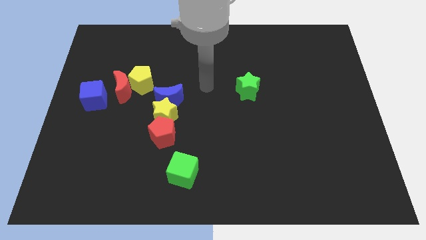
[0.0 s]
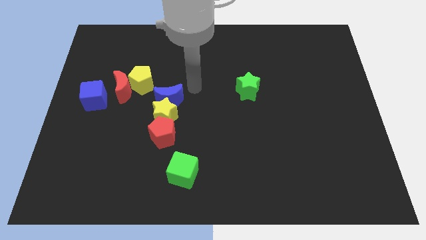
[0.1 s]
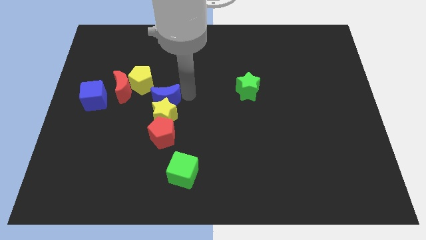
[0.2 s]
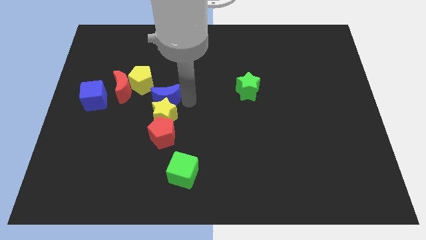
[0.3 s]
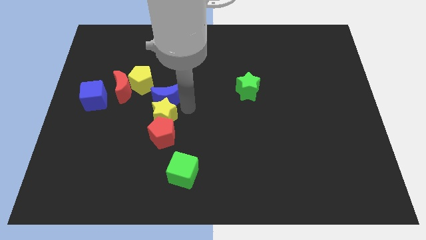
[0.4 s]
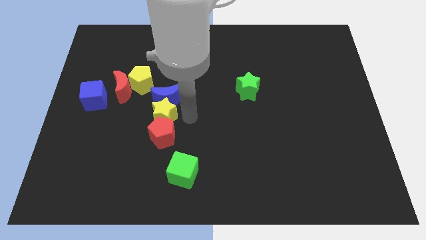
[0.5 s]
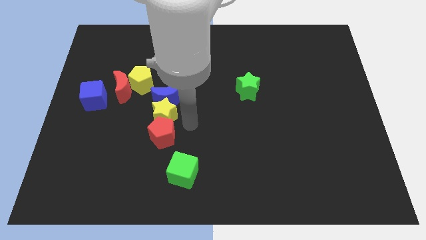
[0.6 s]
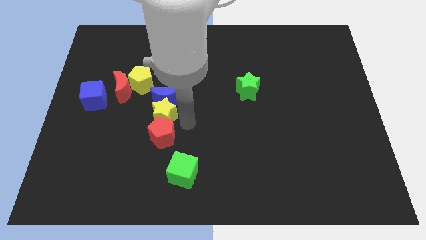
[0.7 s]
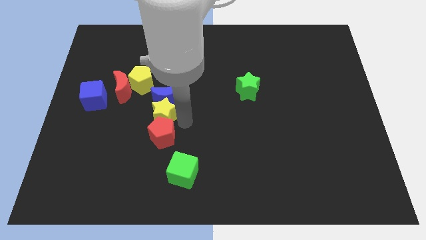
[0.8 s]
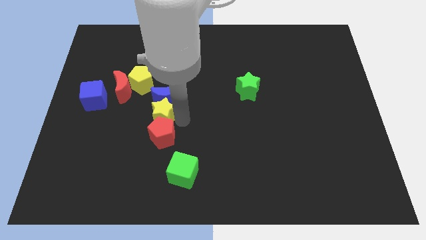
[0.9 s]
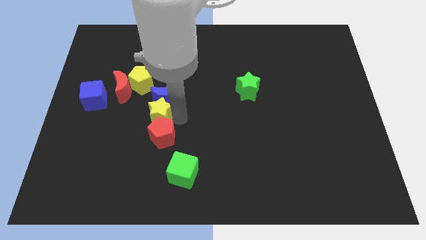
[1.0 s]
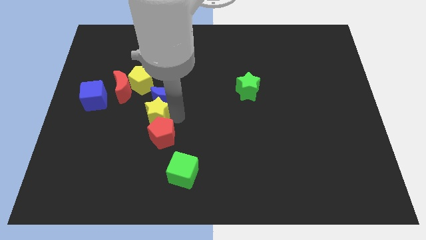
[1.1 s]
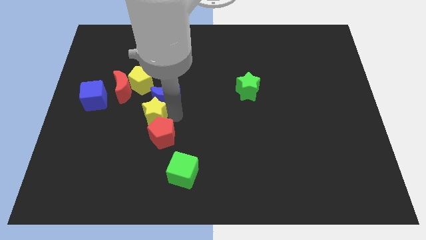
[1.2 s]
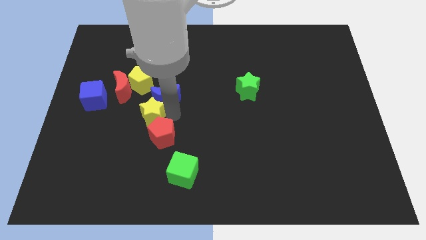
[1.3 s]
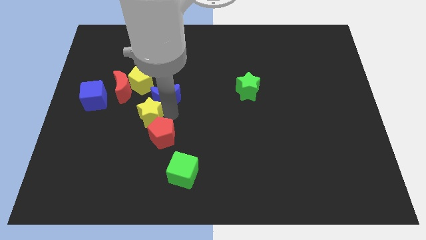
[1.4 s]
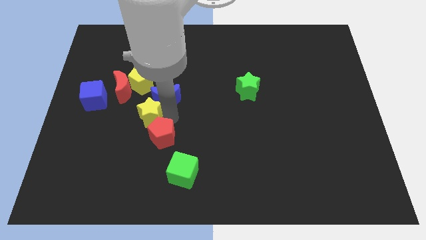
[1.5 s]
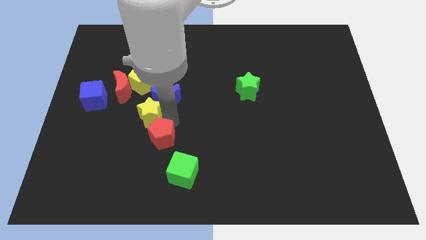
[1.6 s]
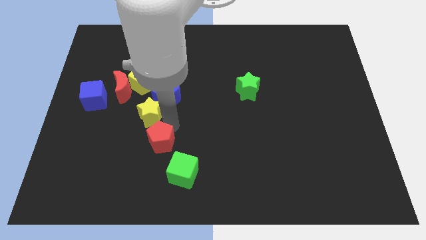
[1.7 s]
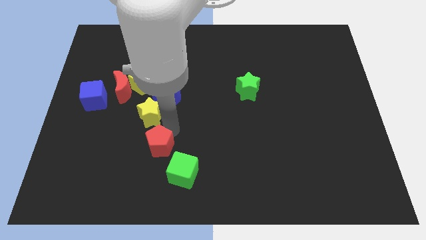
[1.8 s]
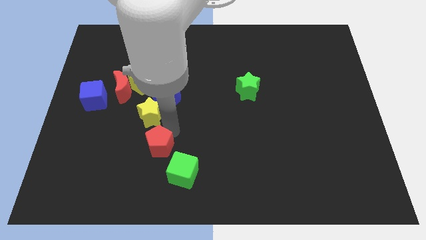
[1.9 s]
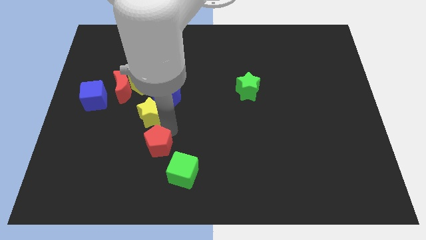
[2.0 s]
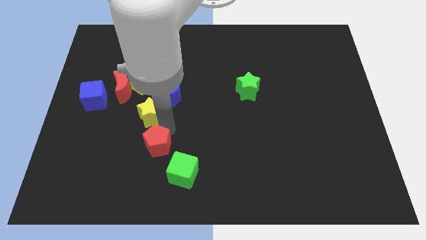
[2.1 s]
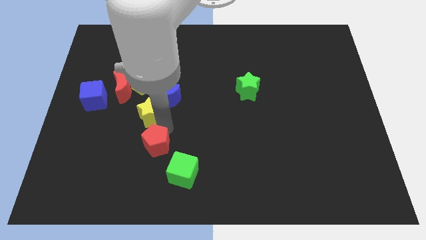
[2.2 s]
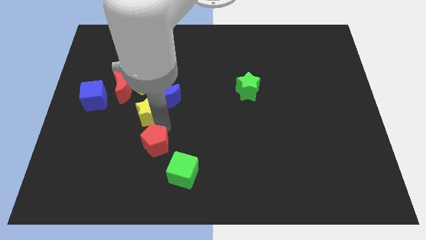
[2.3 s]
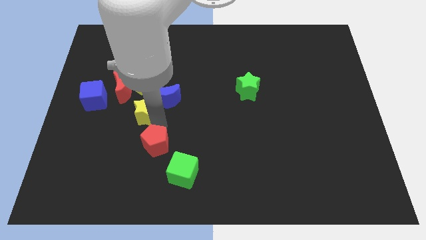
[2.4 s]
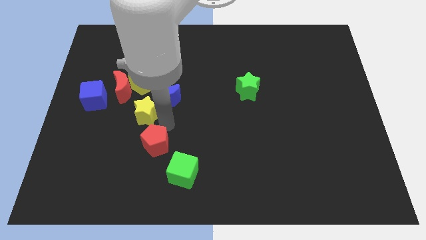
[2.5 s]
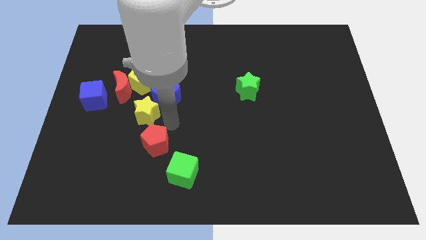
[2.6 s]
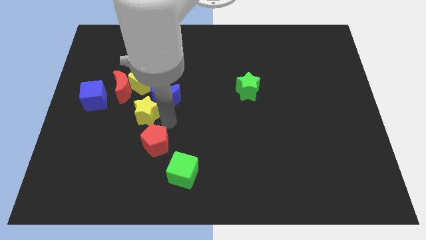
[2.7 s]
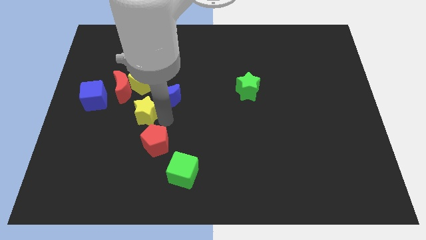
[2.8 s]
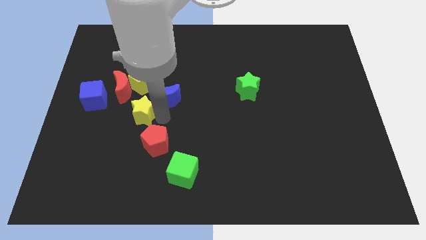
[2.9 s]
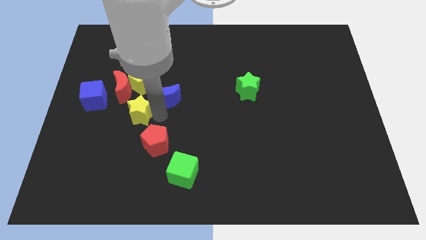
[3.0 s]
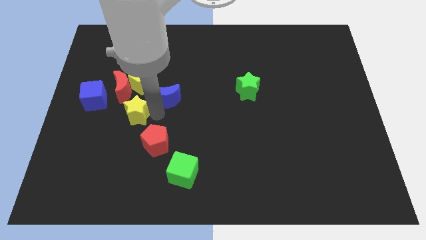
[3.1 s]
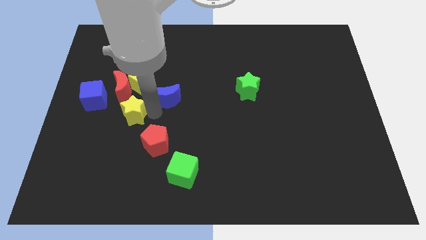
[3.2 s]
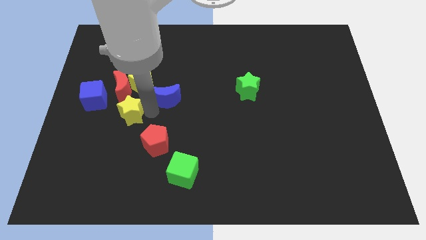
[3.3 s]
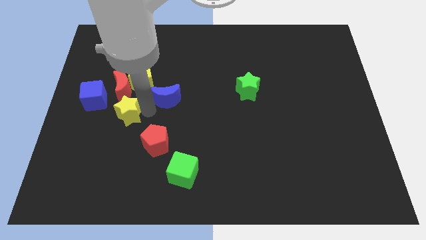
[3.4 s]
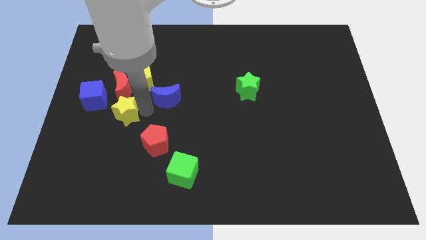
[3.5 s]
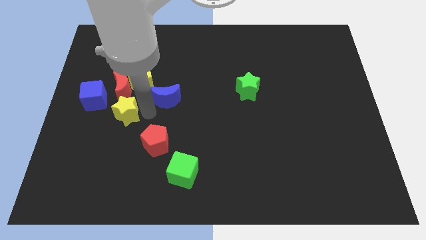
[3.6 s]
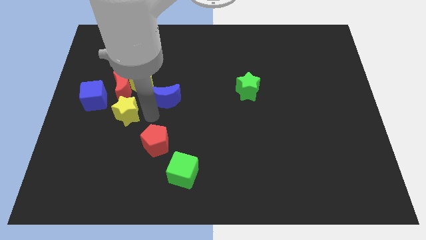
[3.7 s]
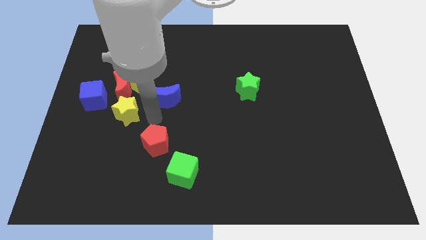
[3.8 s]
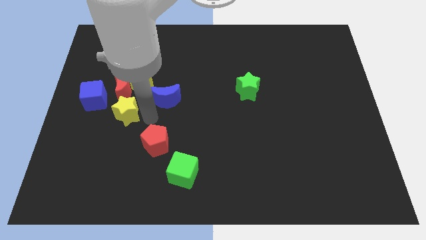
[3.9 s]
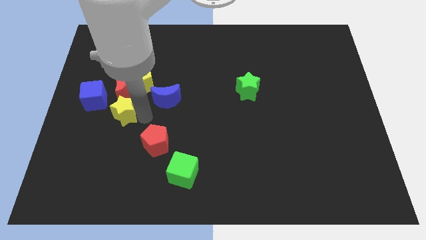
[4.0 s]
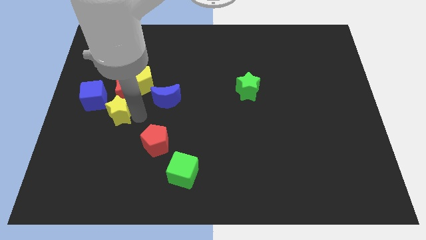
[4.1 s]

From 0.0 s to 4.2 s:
separate the yellow star from the blue moon and red pentagon

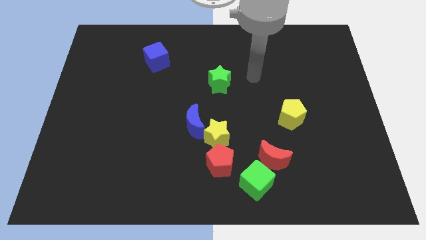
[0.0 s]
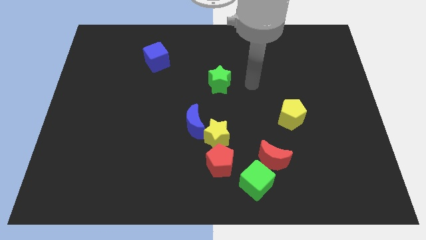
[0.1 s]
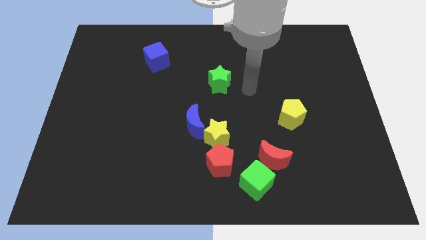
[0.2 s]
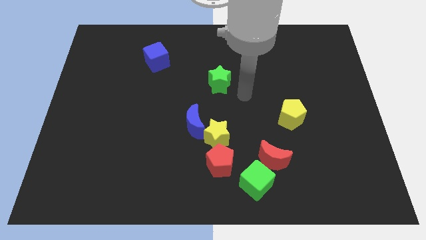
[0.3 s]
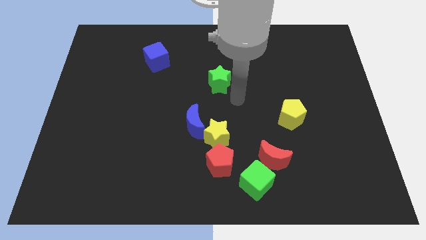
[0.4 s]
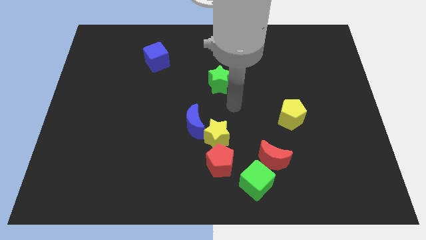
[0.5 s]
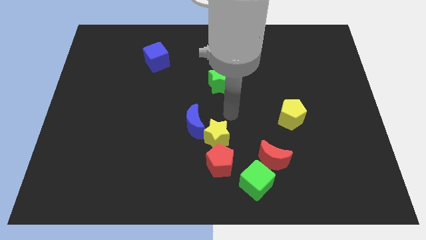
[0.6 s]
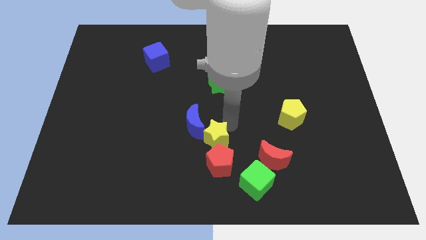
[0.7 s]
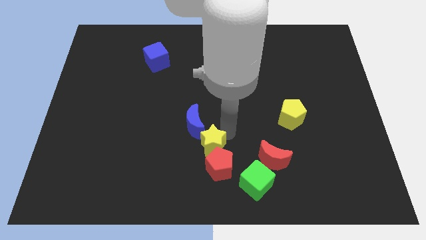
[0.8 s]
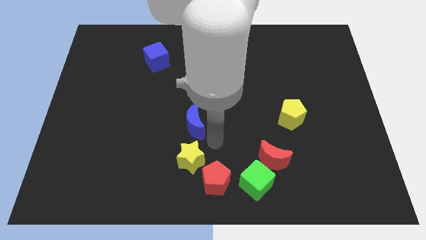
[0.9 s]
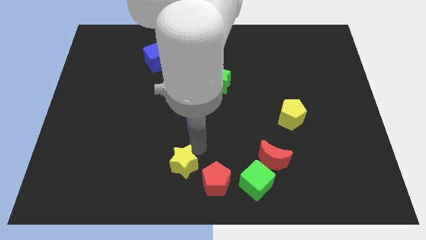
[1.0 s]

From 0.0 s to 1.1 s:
separate the blue moon from the yellow star

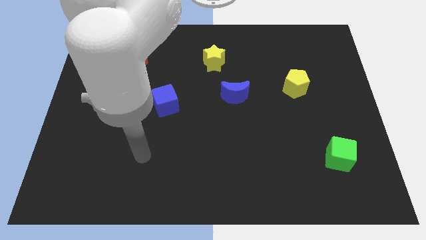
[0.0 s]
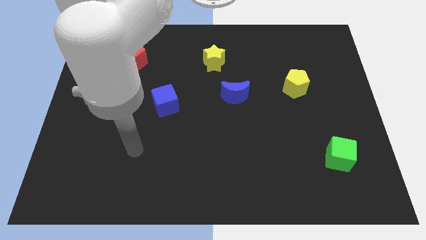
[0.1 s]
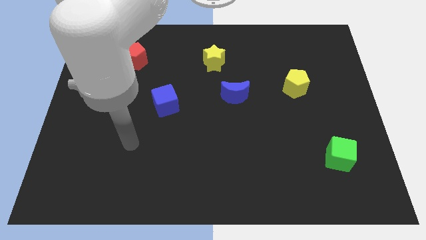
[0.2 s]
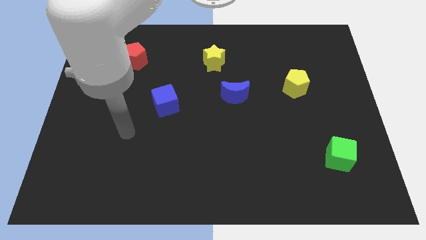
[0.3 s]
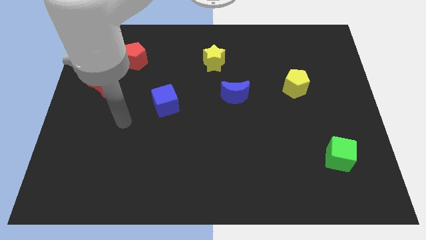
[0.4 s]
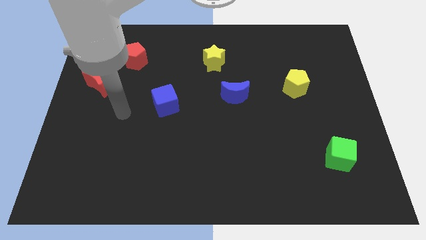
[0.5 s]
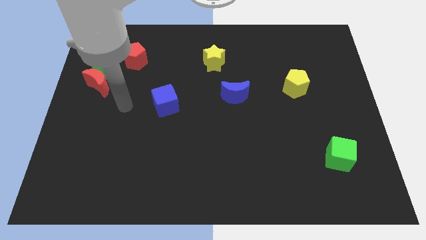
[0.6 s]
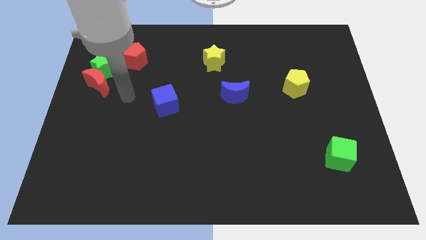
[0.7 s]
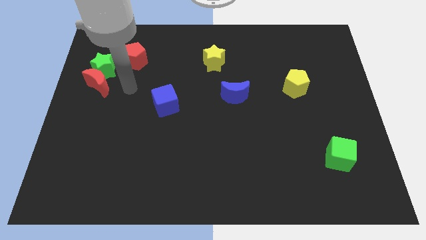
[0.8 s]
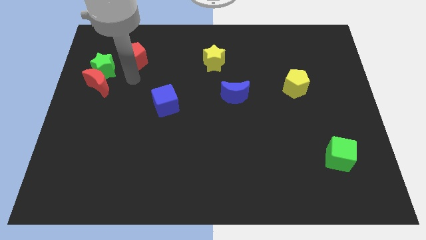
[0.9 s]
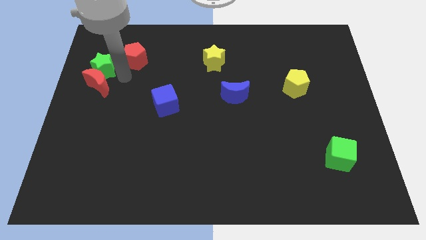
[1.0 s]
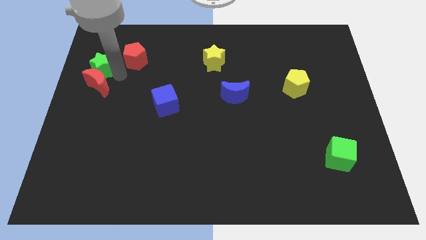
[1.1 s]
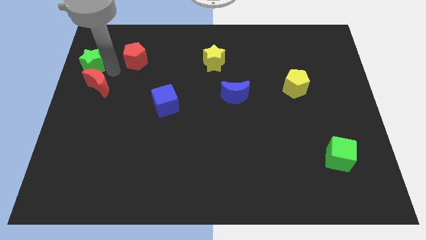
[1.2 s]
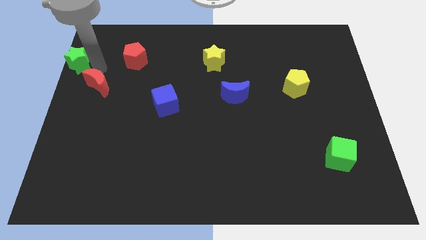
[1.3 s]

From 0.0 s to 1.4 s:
separate the red moon from the green star

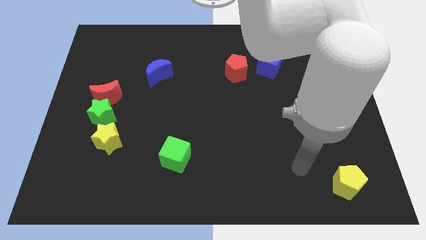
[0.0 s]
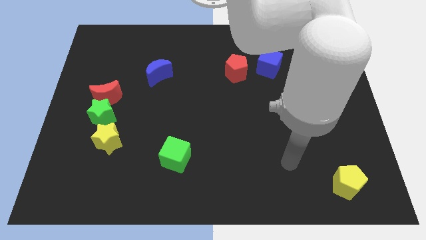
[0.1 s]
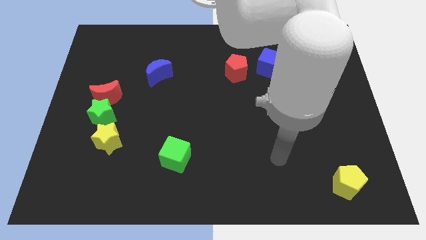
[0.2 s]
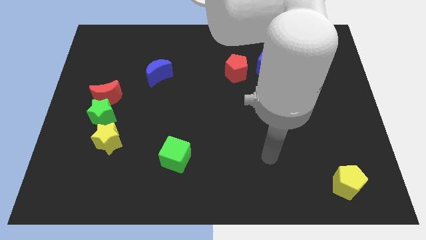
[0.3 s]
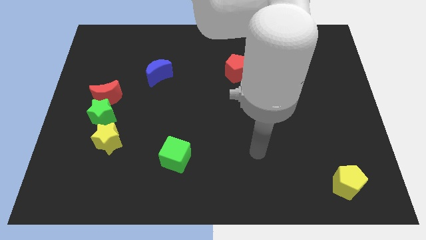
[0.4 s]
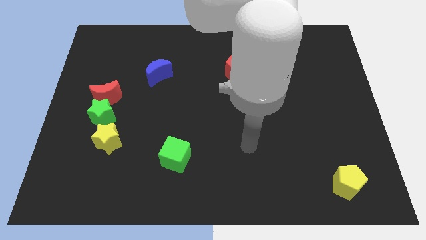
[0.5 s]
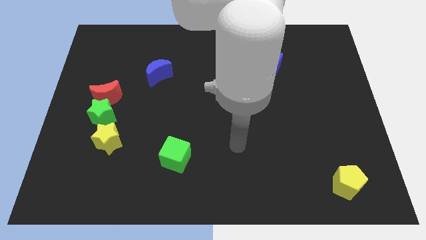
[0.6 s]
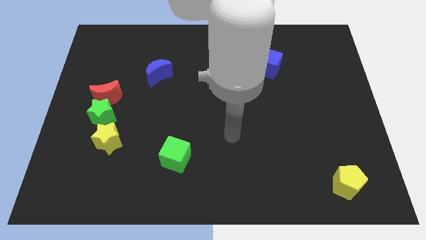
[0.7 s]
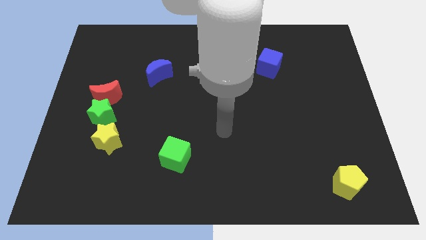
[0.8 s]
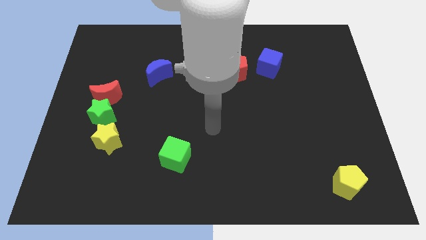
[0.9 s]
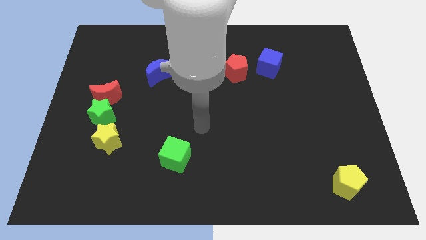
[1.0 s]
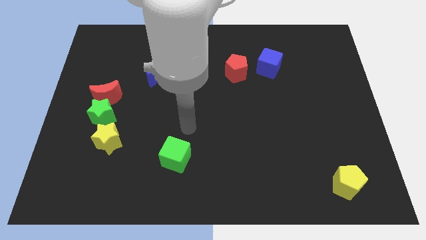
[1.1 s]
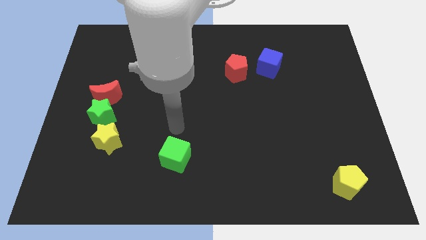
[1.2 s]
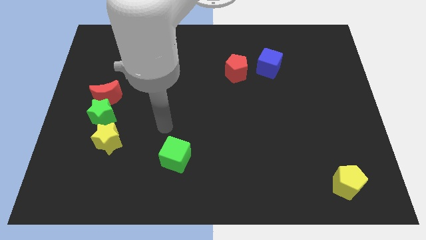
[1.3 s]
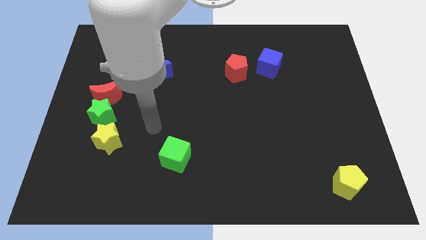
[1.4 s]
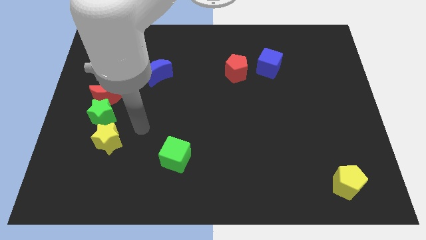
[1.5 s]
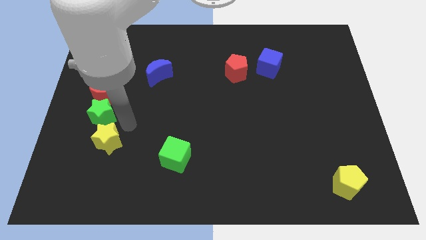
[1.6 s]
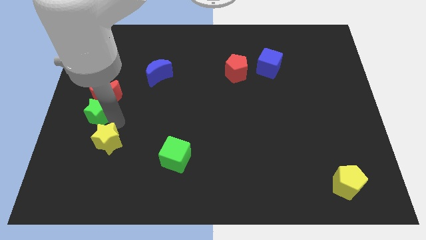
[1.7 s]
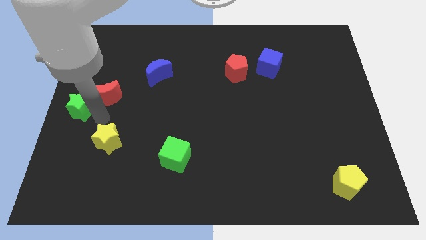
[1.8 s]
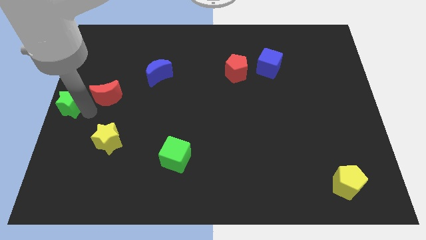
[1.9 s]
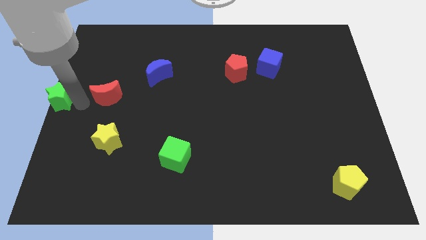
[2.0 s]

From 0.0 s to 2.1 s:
move the red moon away from the green star

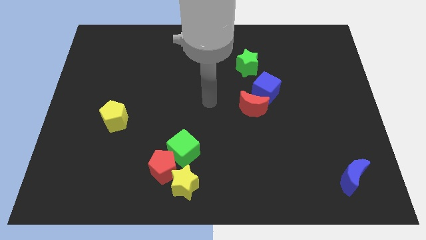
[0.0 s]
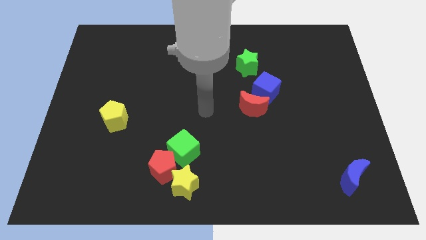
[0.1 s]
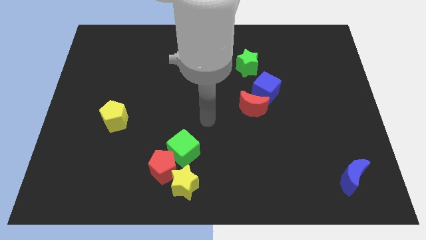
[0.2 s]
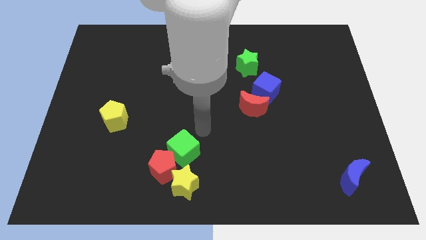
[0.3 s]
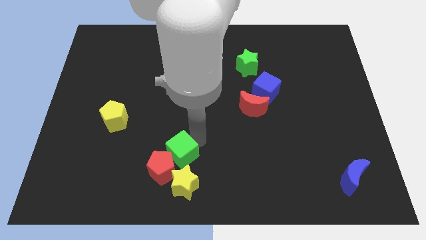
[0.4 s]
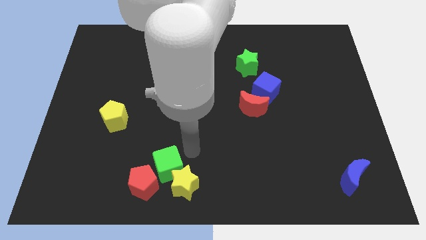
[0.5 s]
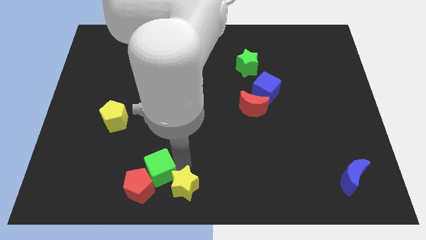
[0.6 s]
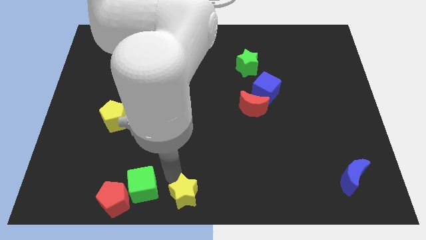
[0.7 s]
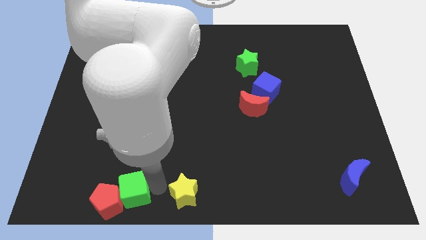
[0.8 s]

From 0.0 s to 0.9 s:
move the red pentagon away from the green cube and yellow star
